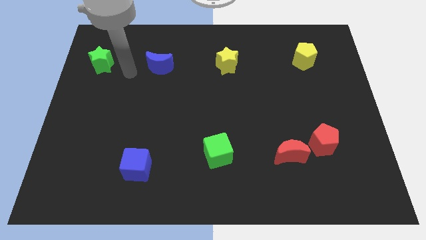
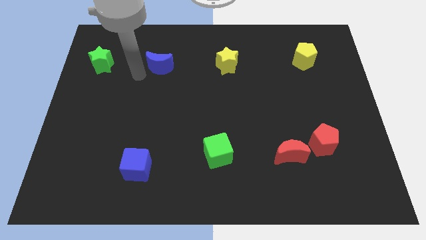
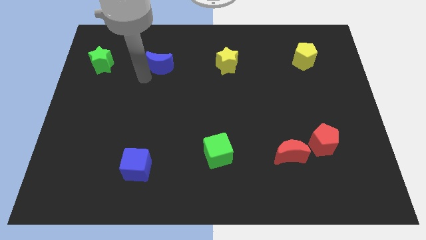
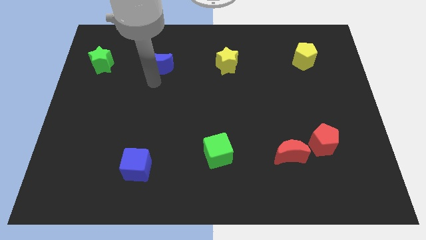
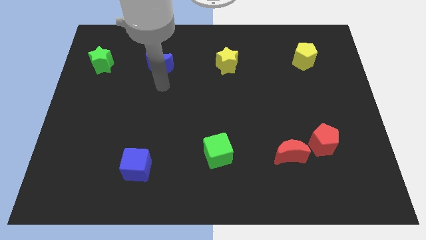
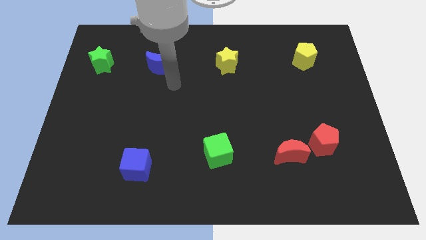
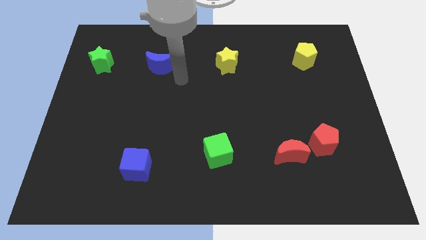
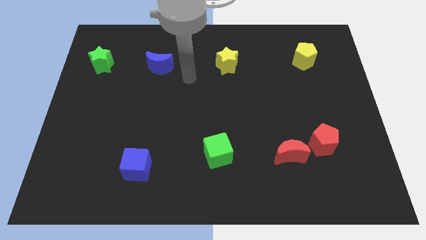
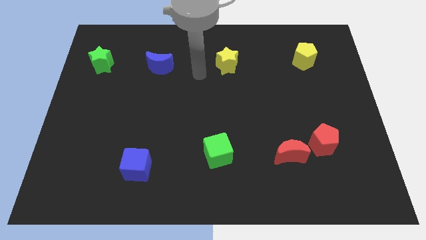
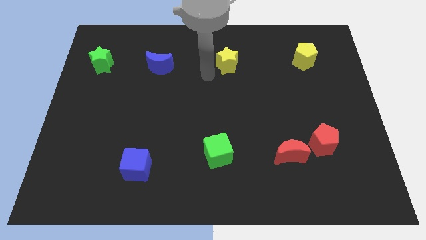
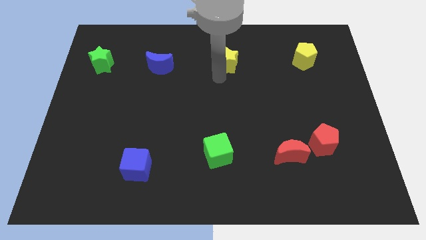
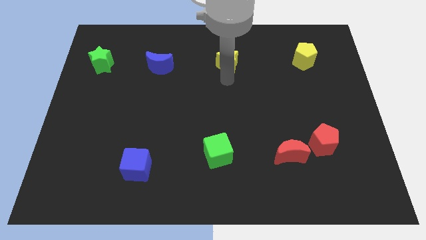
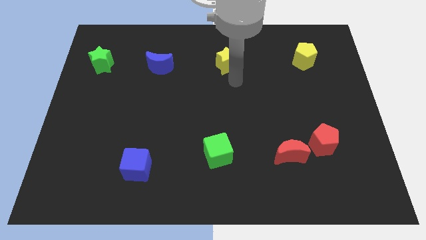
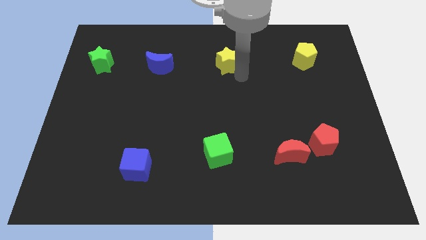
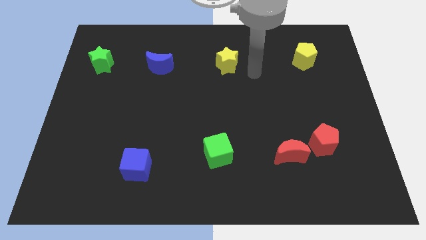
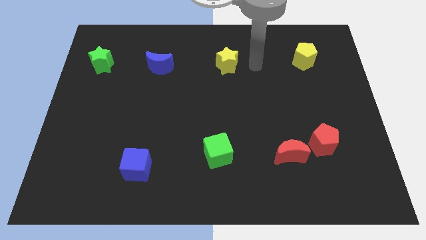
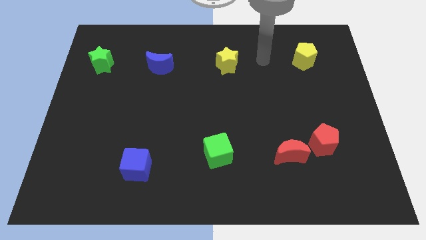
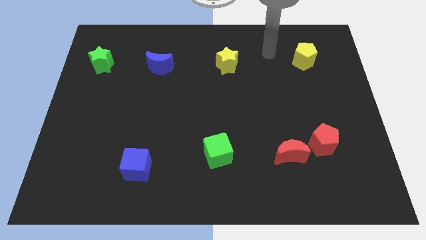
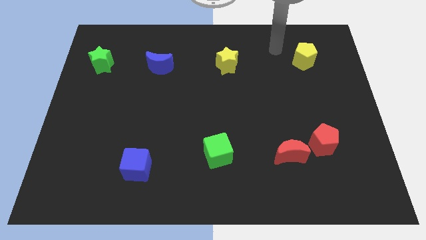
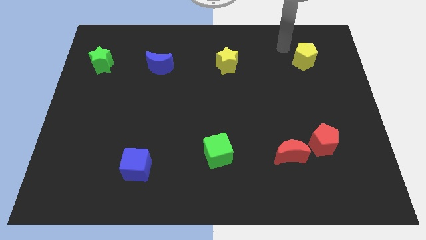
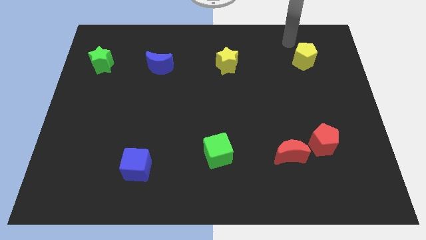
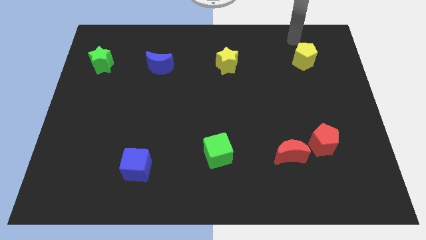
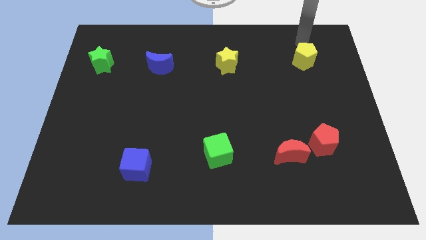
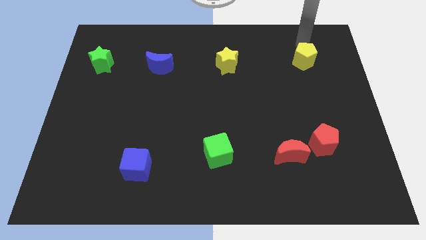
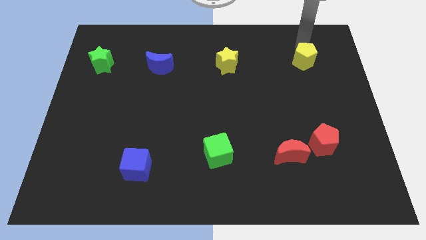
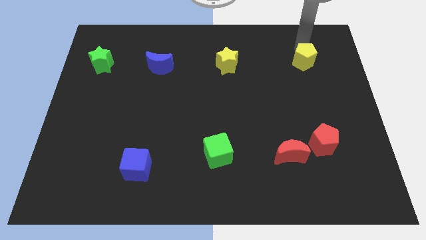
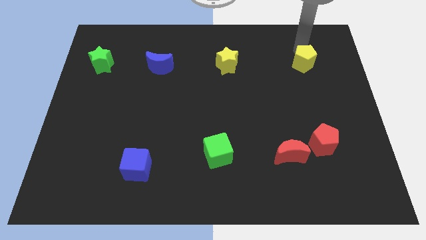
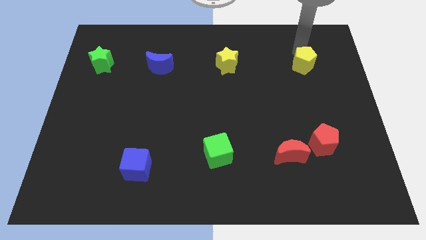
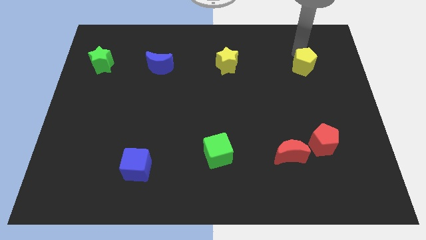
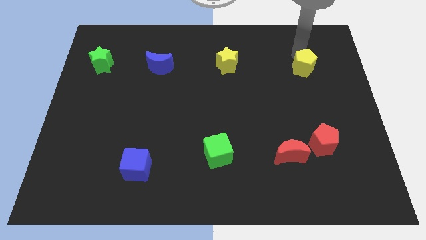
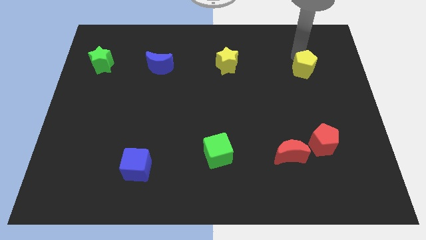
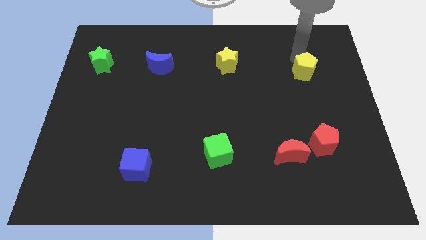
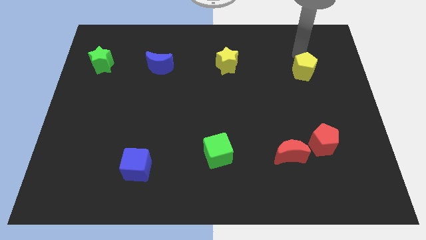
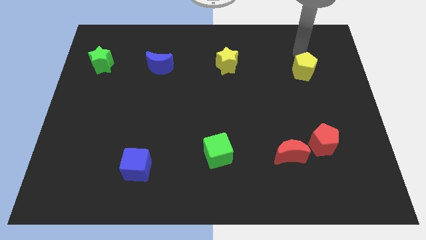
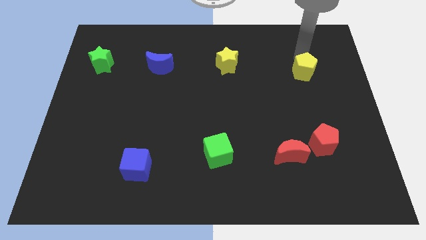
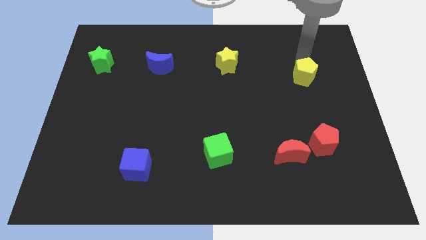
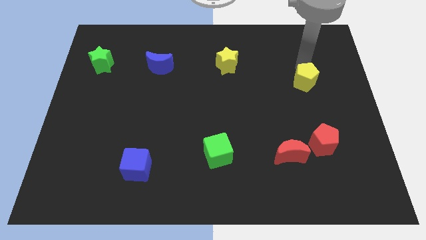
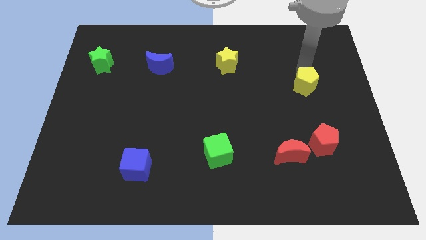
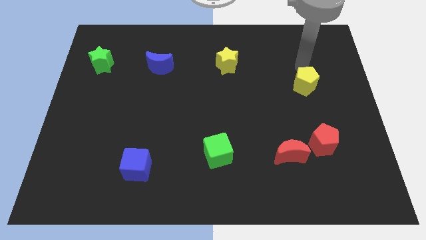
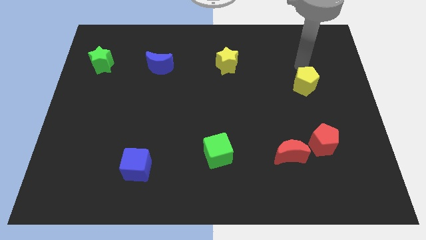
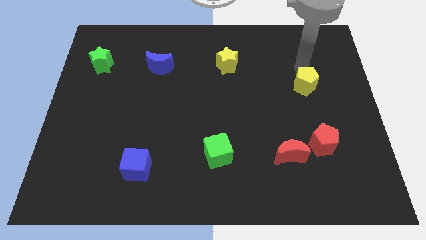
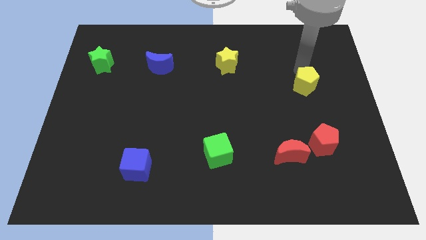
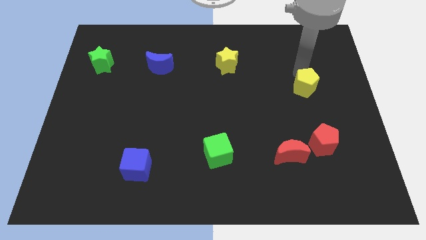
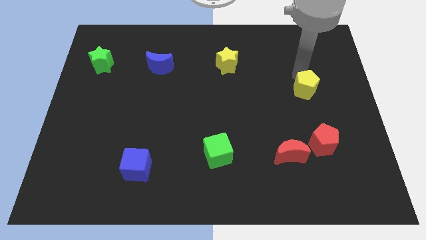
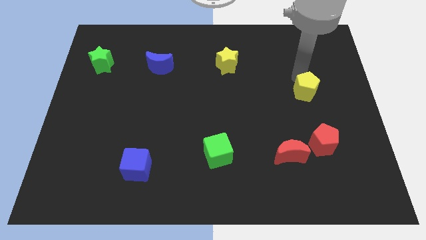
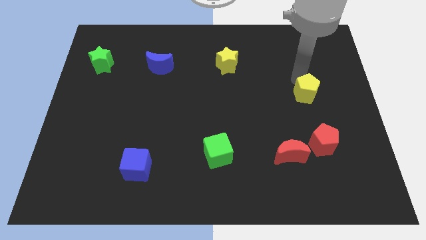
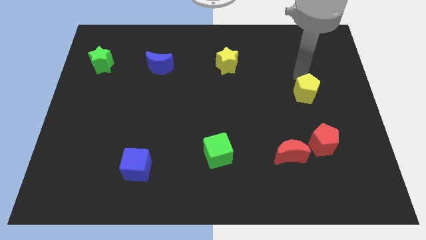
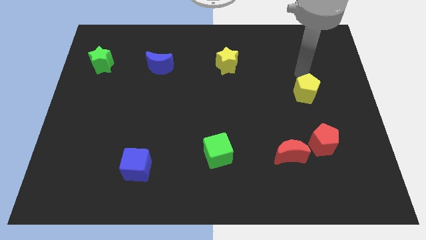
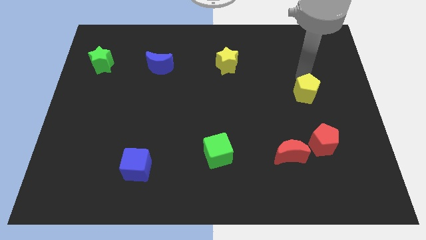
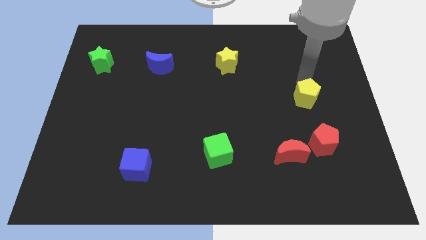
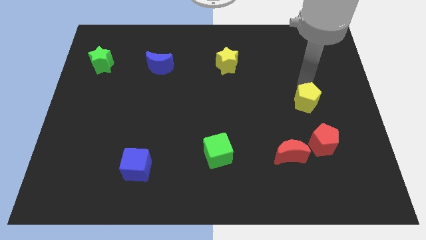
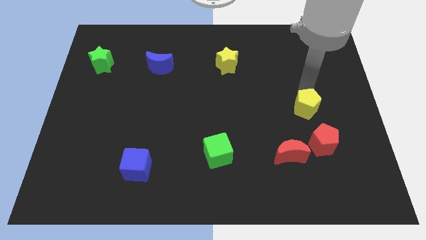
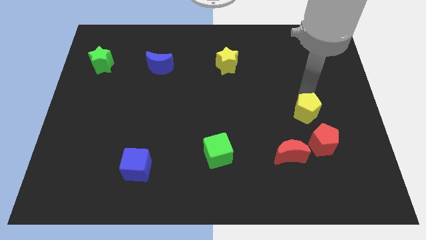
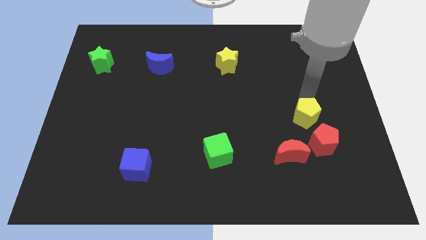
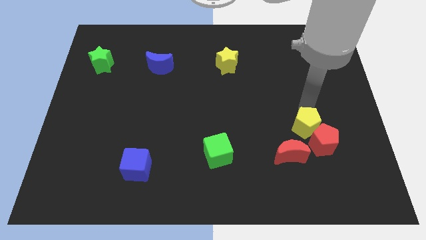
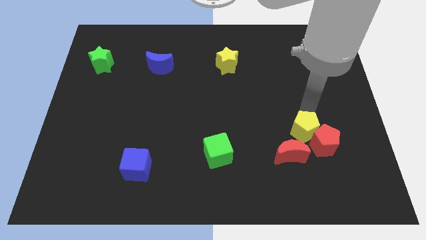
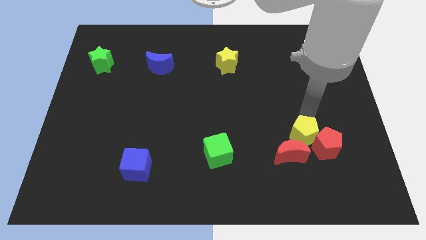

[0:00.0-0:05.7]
put the yellow pentagon to the red moon

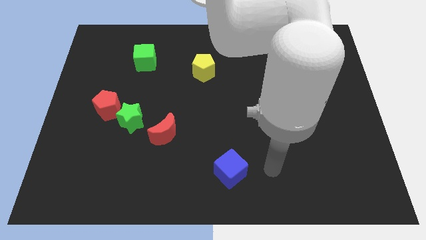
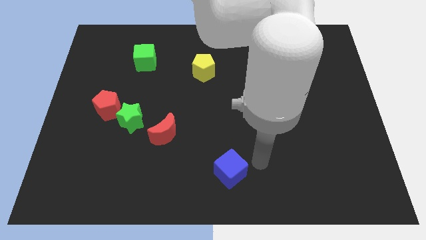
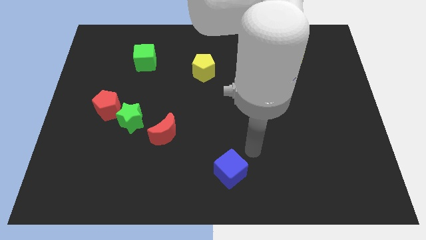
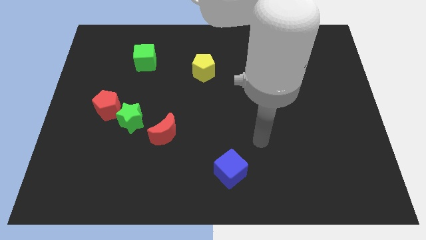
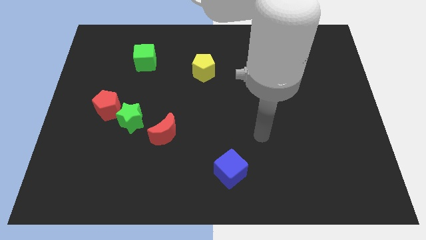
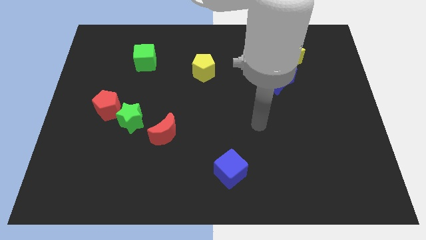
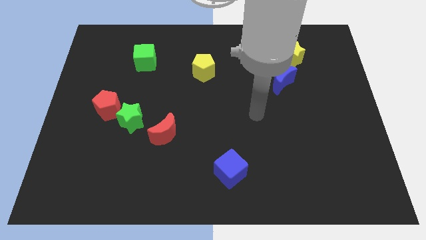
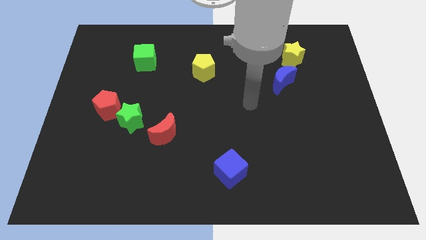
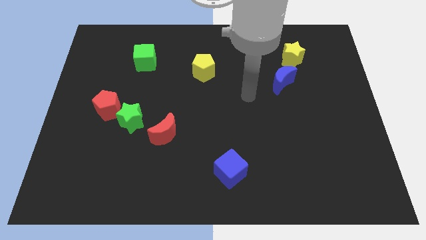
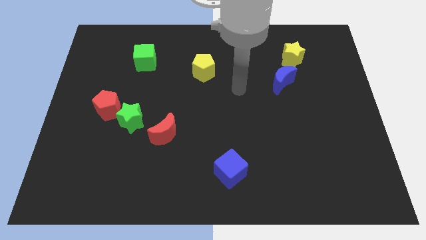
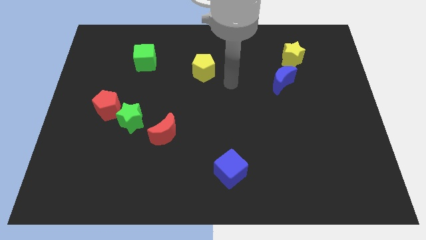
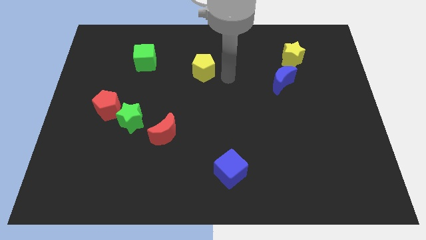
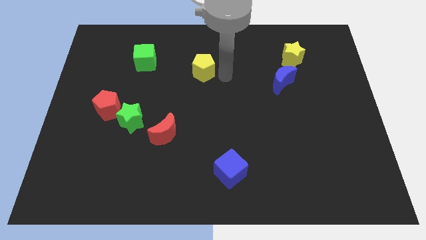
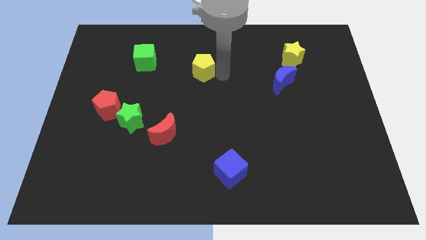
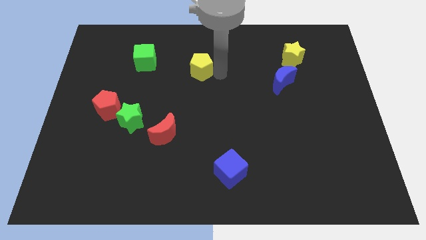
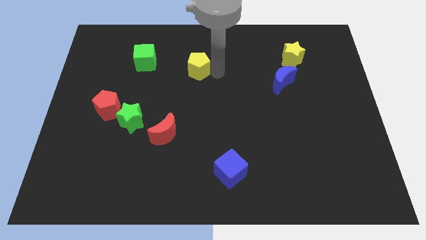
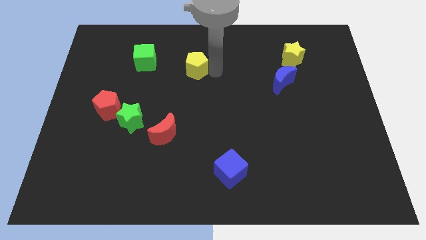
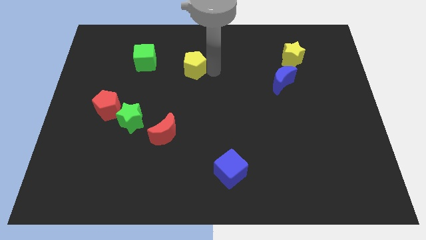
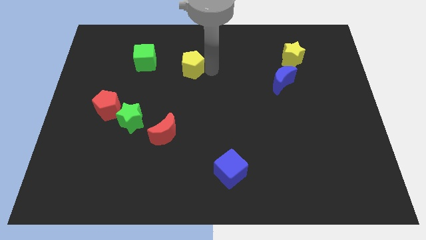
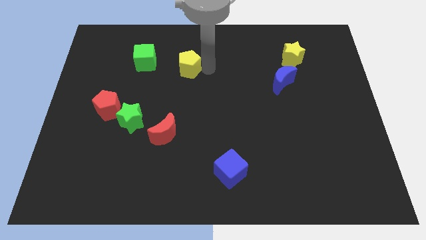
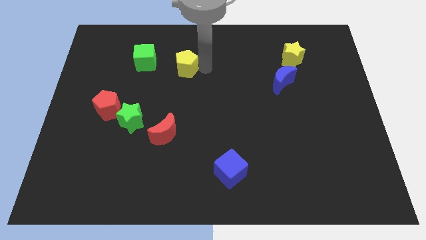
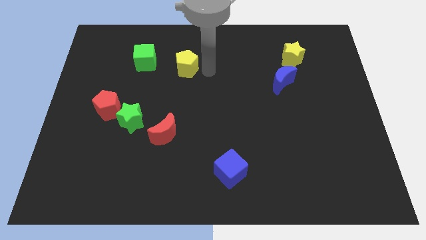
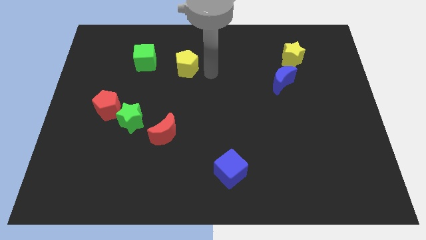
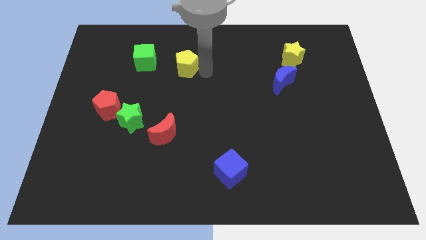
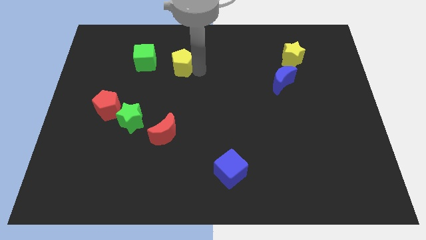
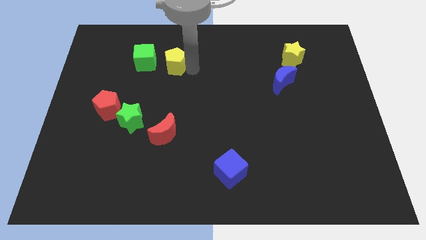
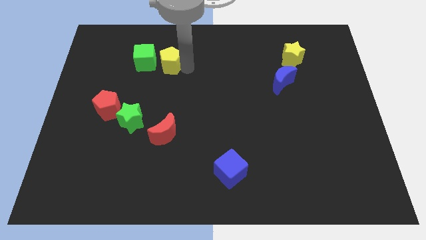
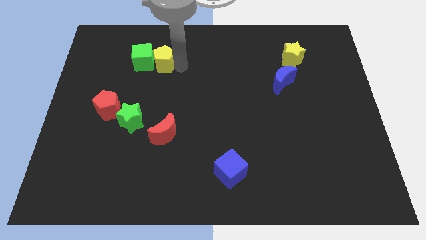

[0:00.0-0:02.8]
push the yellow pentagon close to the green cube
